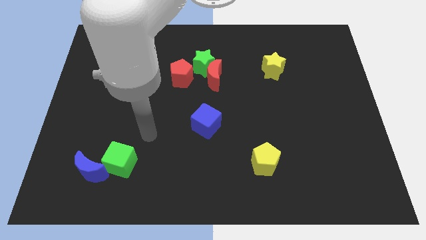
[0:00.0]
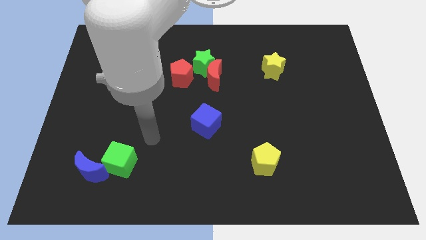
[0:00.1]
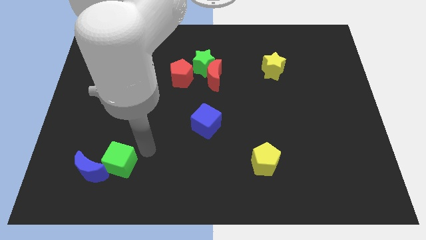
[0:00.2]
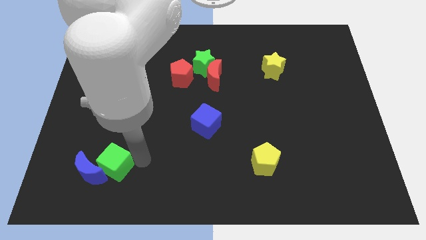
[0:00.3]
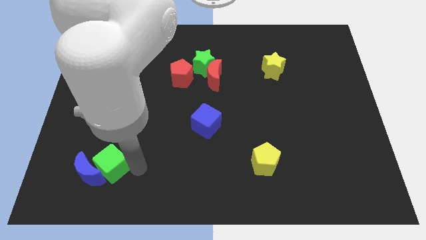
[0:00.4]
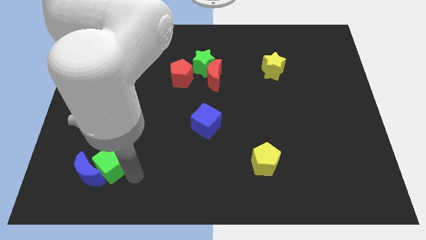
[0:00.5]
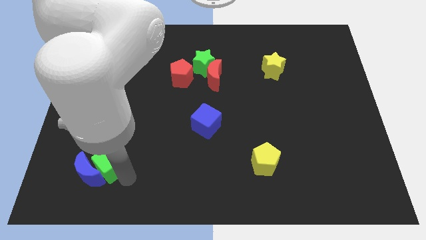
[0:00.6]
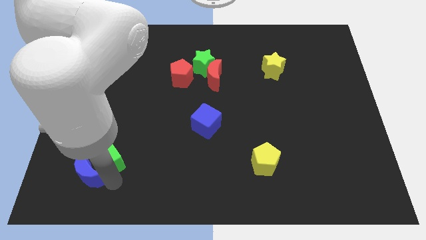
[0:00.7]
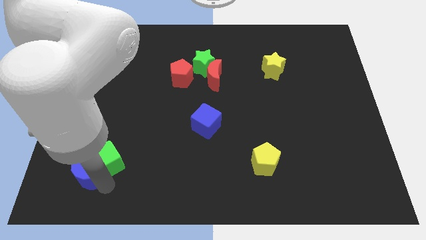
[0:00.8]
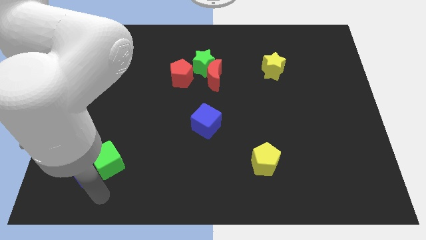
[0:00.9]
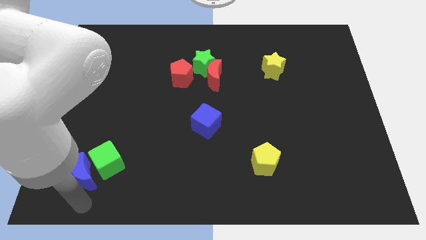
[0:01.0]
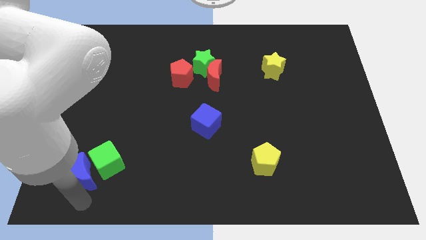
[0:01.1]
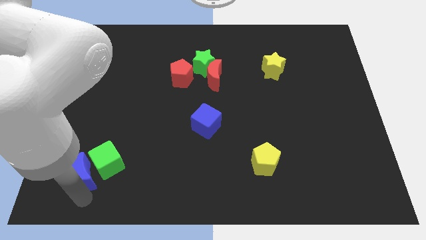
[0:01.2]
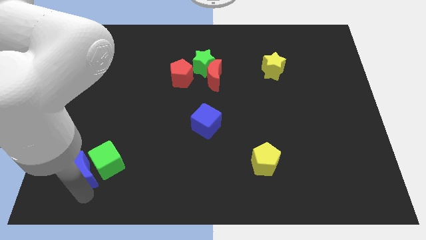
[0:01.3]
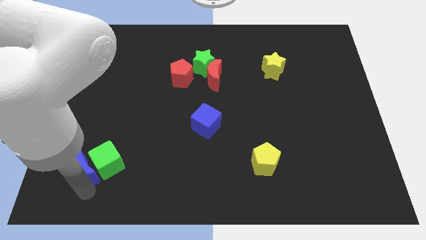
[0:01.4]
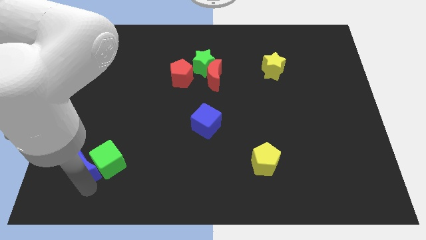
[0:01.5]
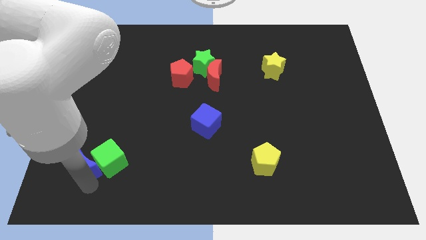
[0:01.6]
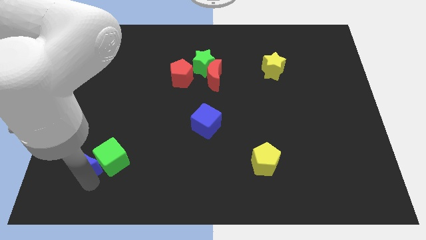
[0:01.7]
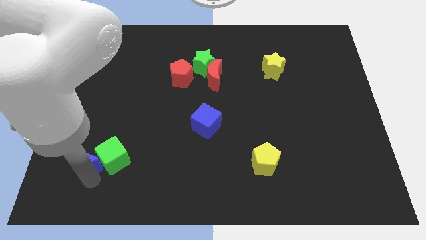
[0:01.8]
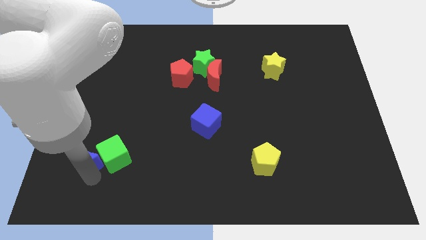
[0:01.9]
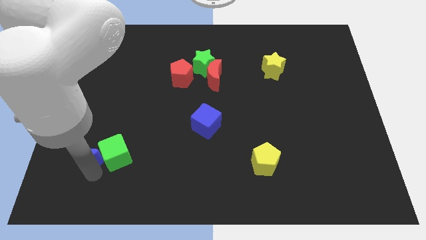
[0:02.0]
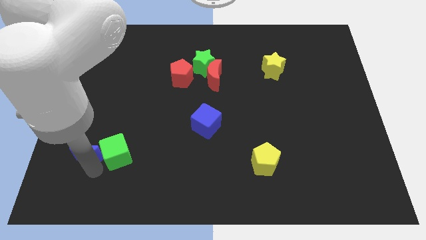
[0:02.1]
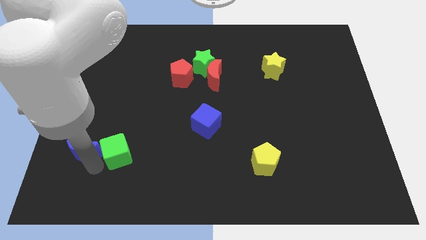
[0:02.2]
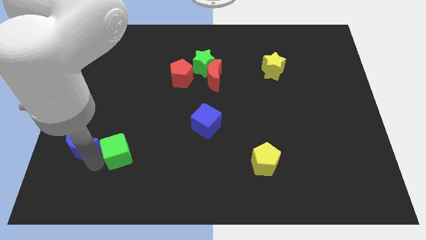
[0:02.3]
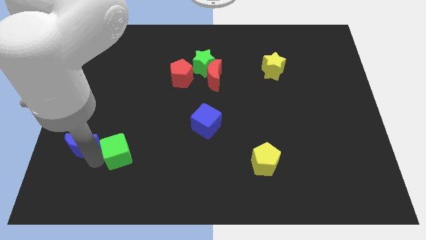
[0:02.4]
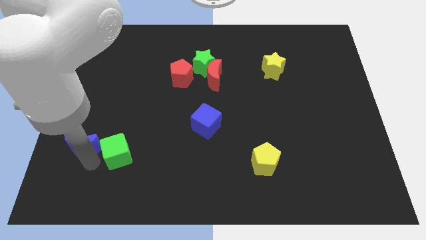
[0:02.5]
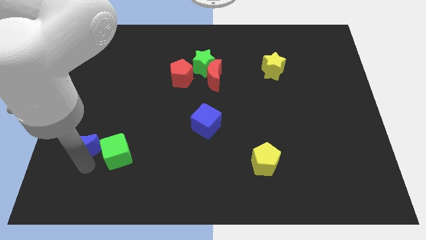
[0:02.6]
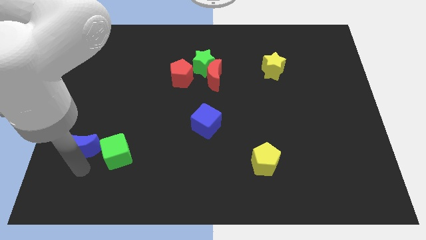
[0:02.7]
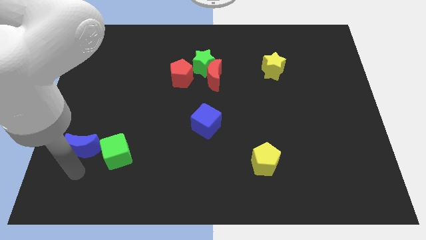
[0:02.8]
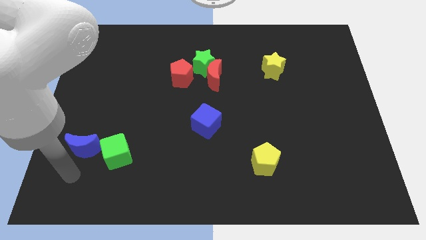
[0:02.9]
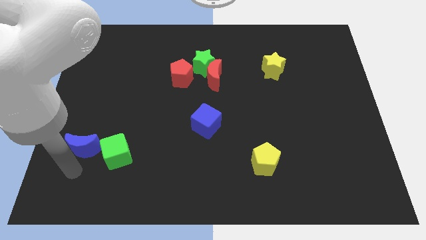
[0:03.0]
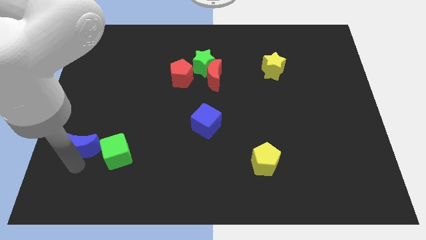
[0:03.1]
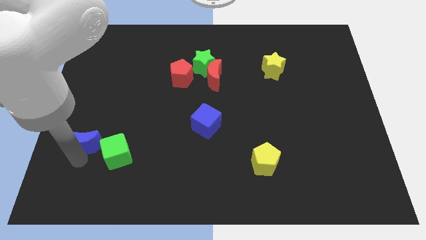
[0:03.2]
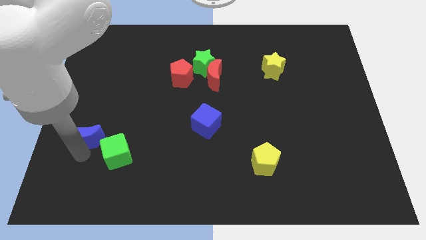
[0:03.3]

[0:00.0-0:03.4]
slightly slide the blue moon upwards

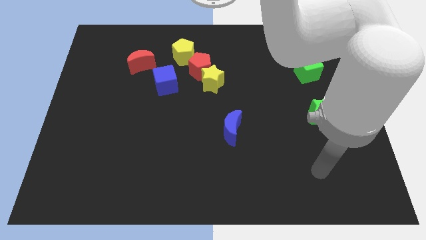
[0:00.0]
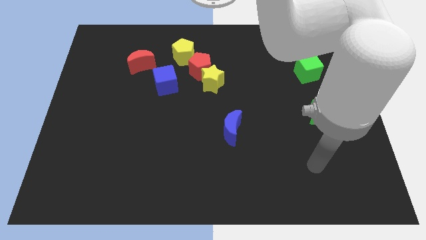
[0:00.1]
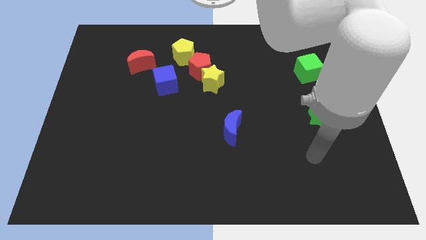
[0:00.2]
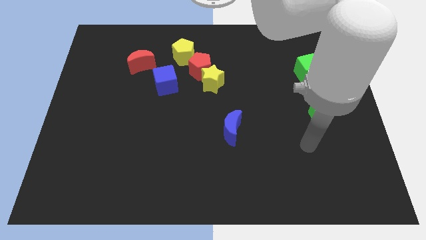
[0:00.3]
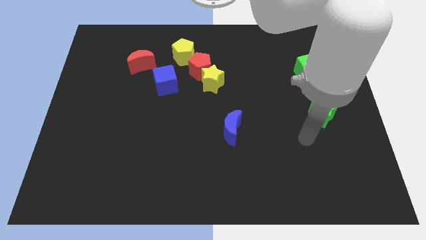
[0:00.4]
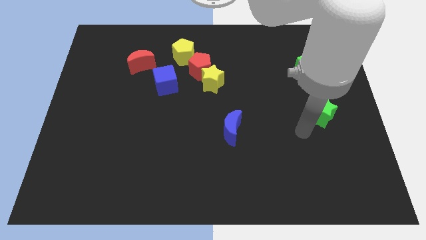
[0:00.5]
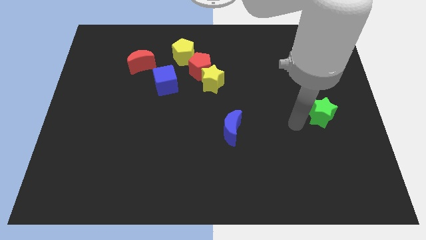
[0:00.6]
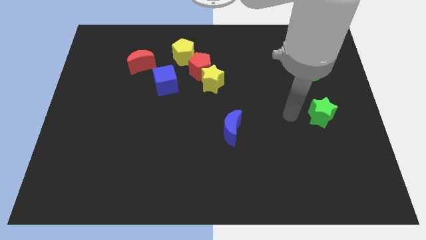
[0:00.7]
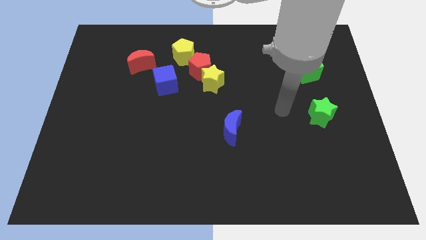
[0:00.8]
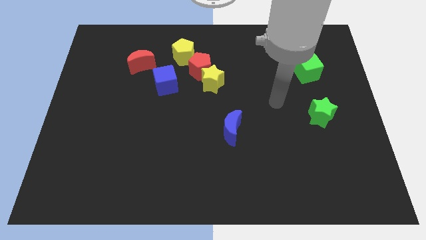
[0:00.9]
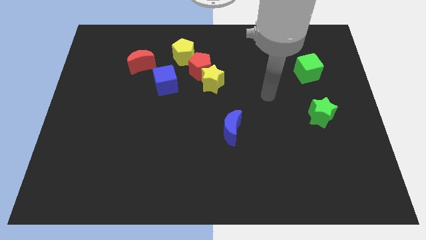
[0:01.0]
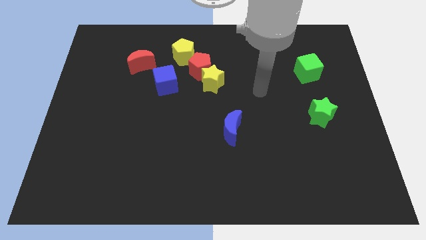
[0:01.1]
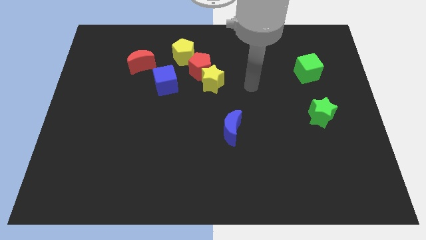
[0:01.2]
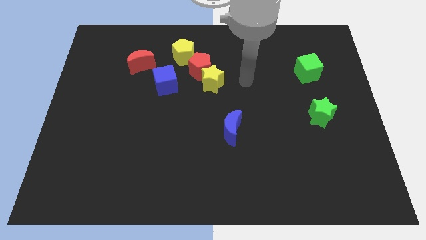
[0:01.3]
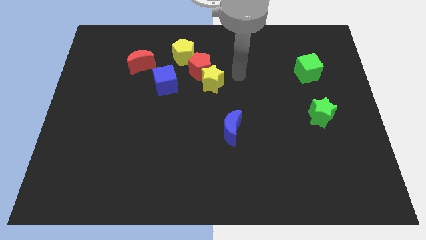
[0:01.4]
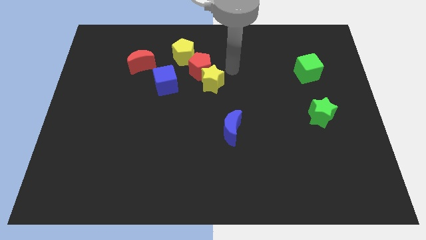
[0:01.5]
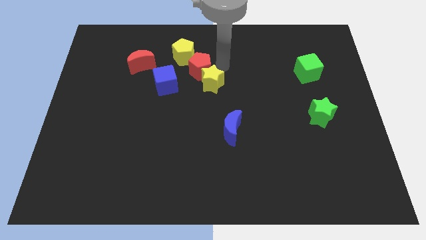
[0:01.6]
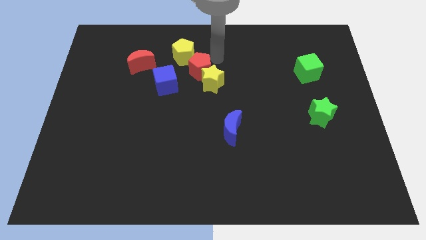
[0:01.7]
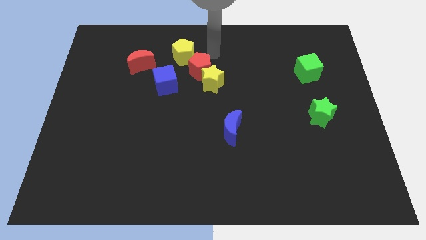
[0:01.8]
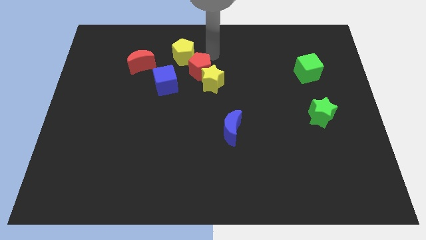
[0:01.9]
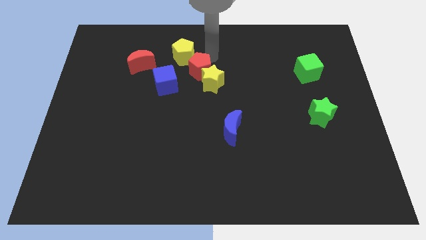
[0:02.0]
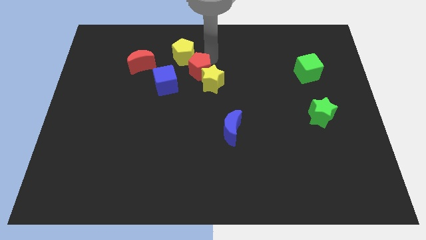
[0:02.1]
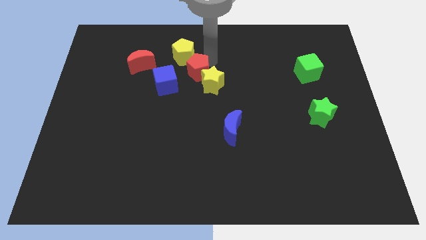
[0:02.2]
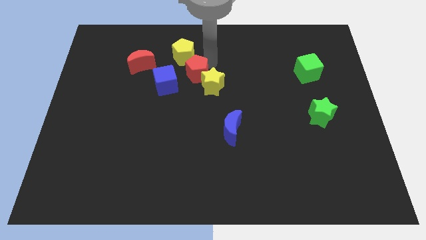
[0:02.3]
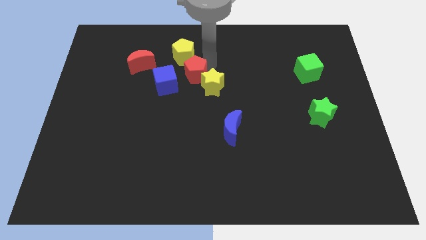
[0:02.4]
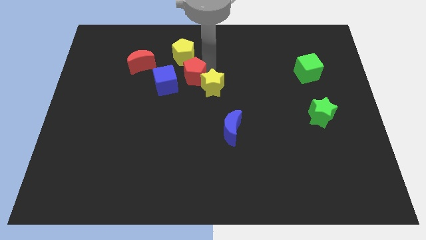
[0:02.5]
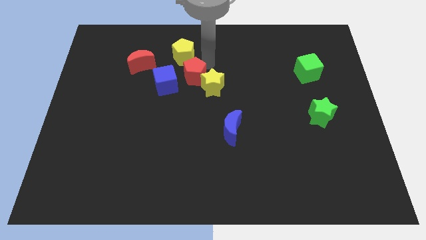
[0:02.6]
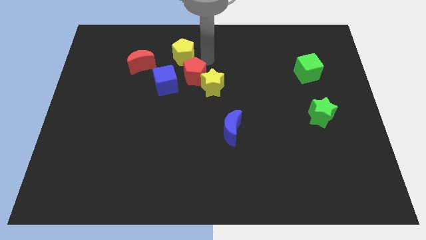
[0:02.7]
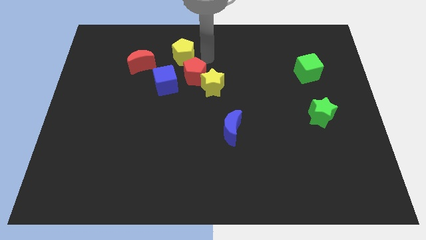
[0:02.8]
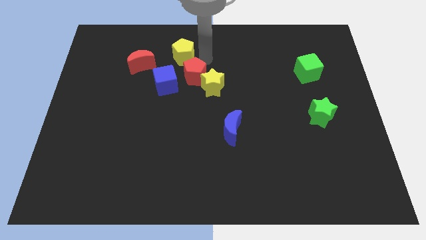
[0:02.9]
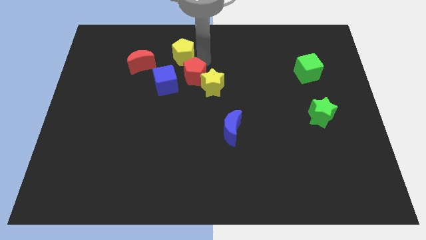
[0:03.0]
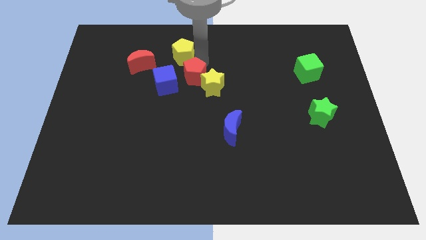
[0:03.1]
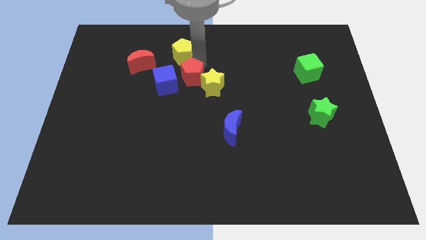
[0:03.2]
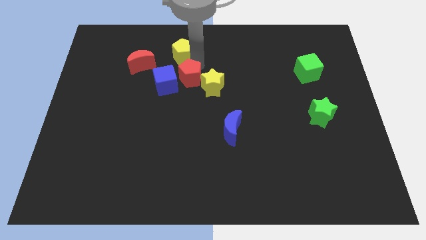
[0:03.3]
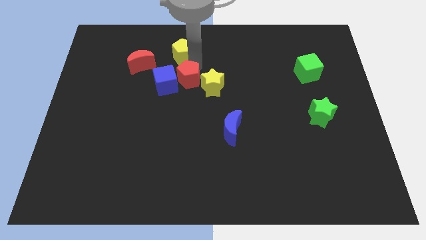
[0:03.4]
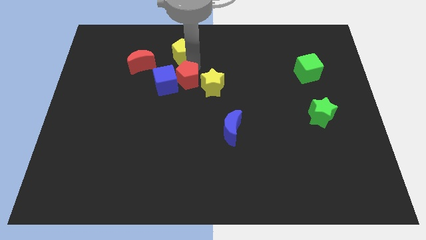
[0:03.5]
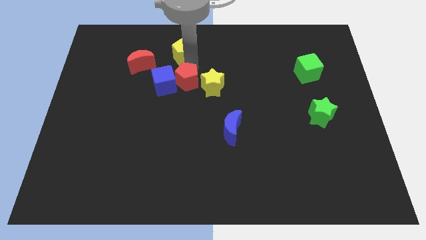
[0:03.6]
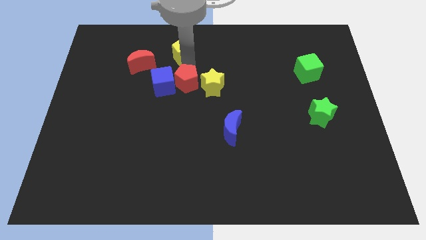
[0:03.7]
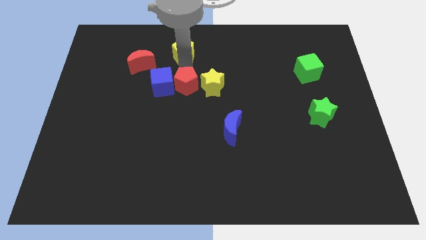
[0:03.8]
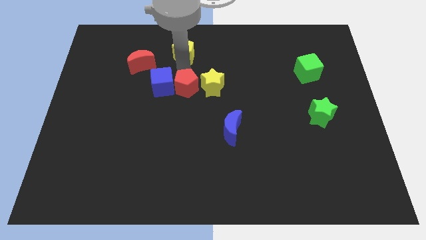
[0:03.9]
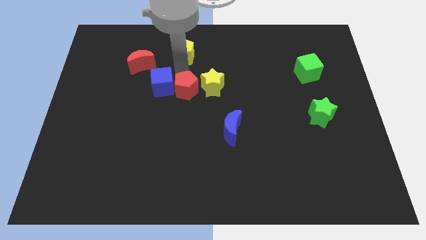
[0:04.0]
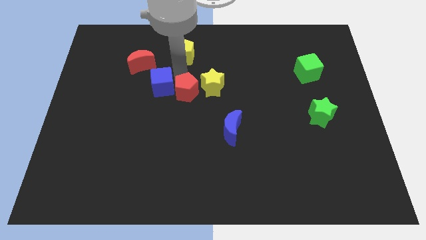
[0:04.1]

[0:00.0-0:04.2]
slightly slide the red pentagon downwards

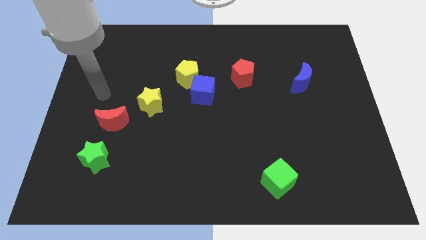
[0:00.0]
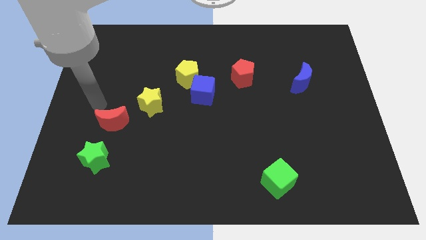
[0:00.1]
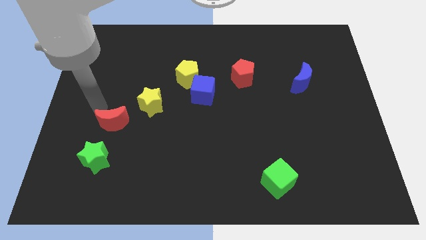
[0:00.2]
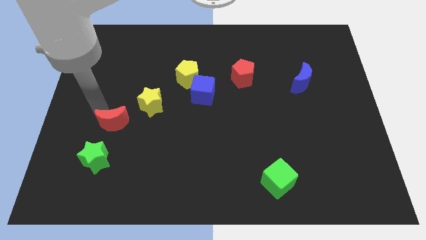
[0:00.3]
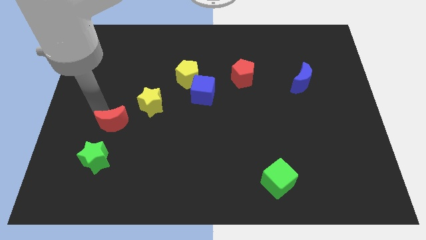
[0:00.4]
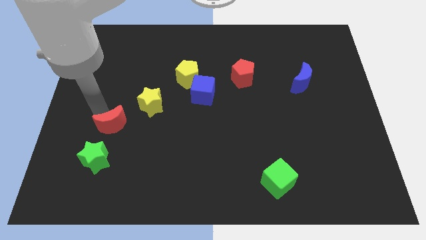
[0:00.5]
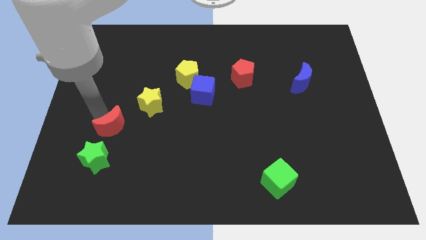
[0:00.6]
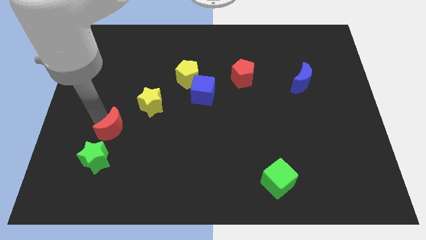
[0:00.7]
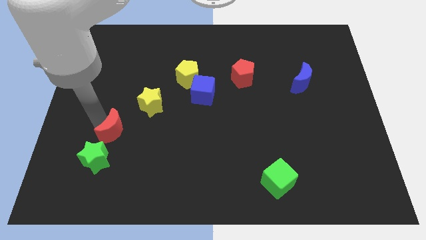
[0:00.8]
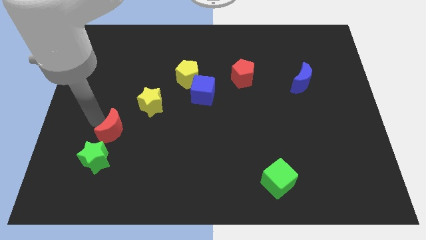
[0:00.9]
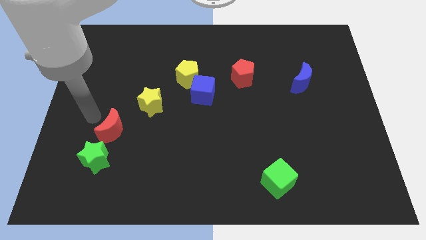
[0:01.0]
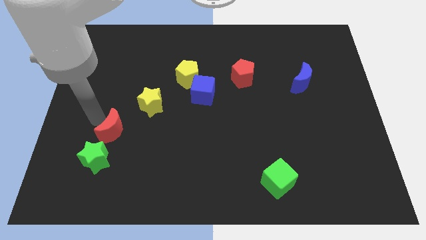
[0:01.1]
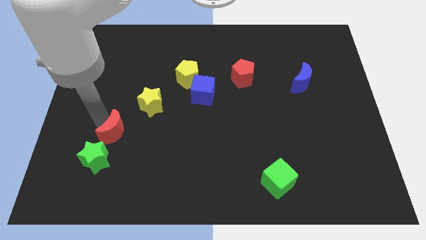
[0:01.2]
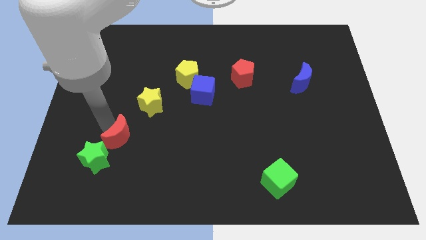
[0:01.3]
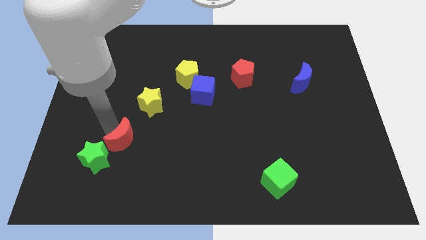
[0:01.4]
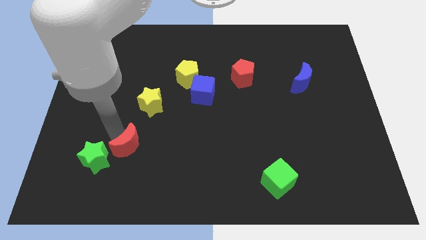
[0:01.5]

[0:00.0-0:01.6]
push the red moon downwards and to the right diagonally a bit
